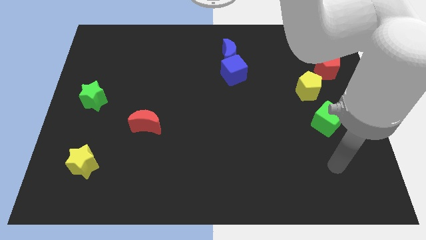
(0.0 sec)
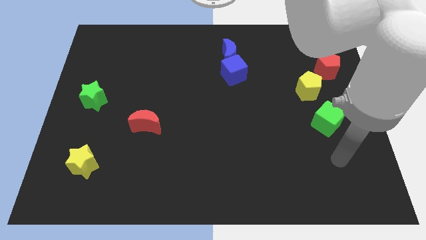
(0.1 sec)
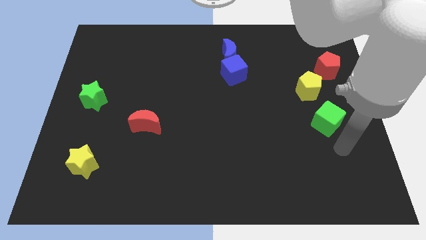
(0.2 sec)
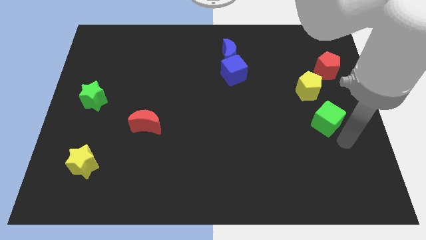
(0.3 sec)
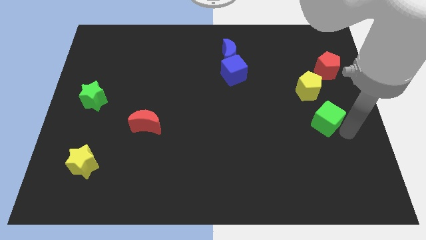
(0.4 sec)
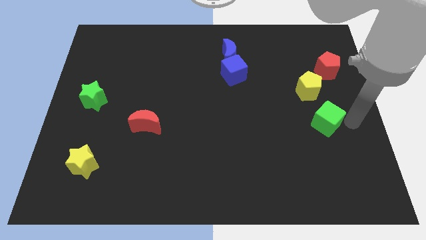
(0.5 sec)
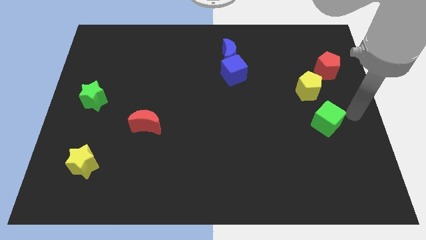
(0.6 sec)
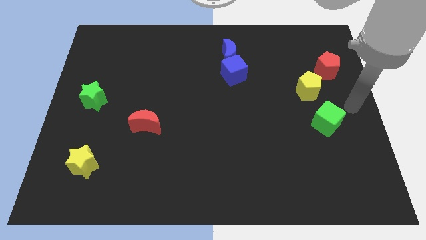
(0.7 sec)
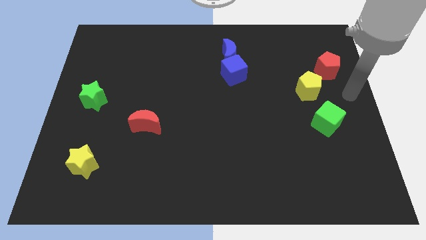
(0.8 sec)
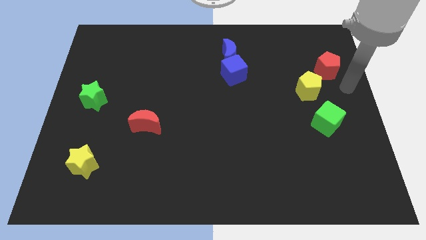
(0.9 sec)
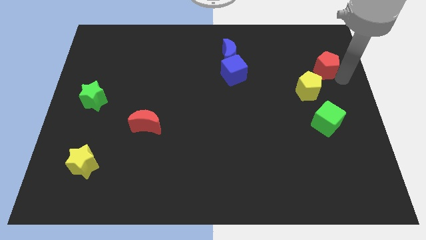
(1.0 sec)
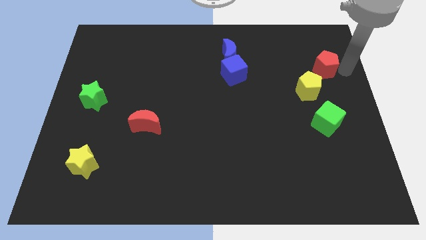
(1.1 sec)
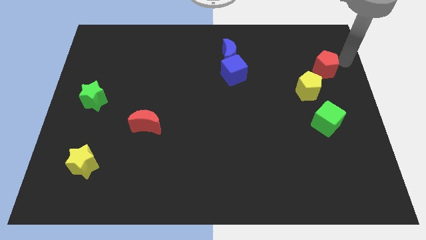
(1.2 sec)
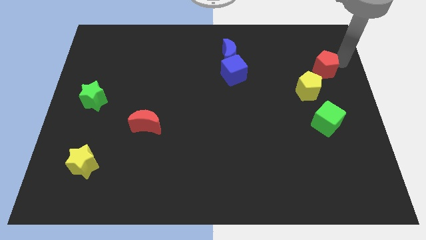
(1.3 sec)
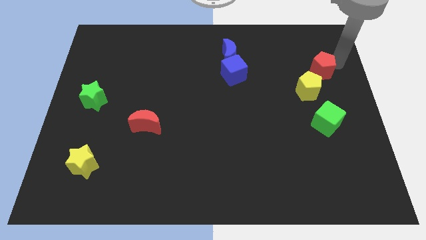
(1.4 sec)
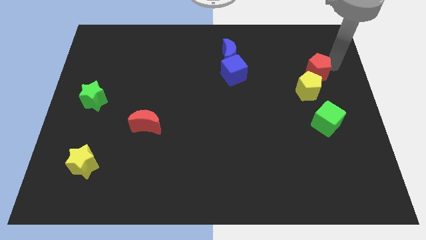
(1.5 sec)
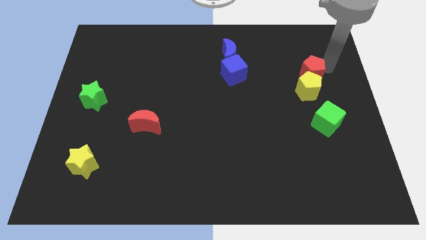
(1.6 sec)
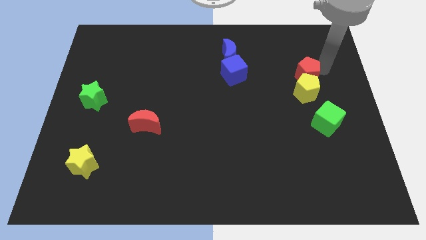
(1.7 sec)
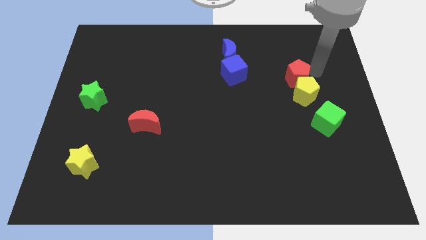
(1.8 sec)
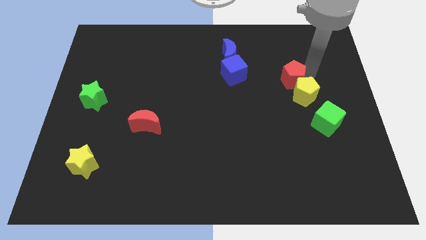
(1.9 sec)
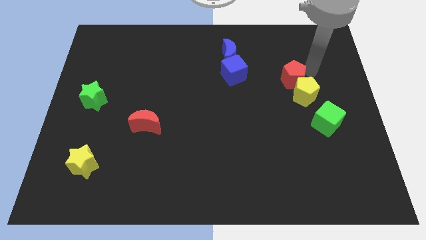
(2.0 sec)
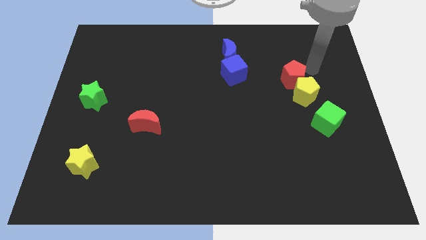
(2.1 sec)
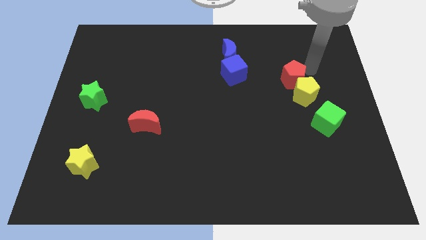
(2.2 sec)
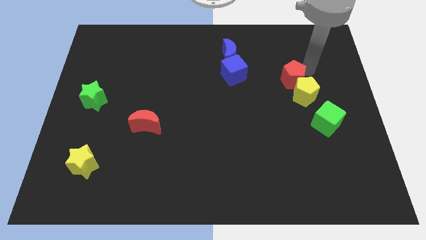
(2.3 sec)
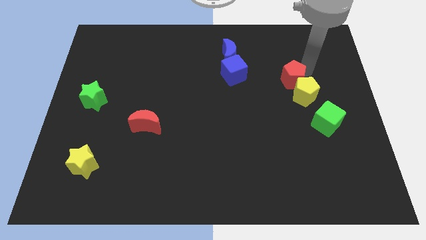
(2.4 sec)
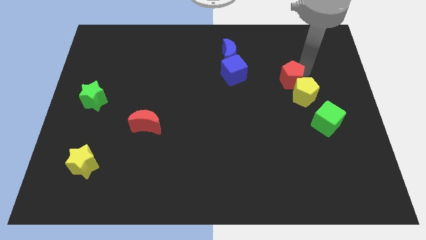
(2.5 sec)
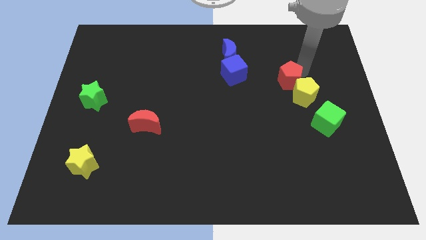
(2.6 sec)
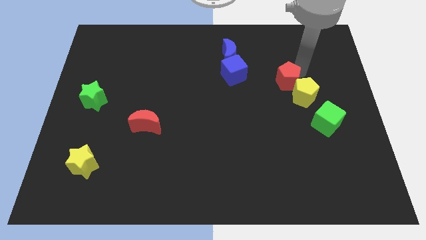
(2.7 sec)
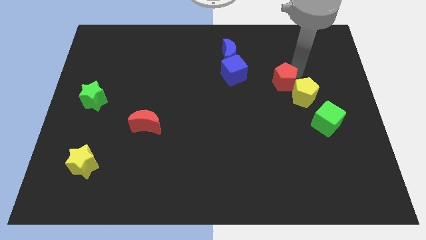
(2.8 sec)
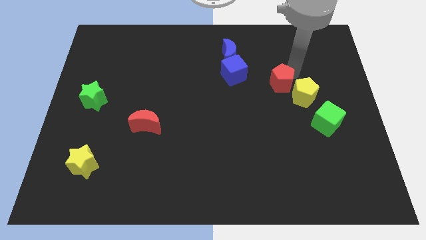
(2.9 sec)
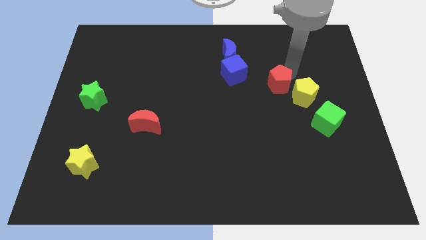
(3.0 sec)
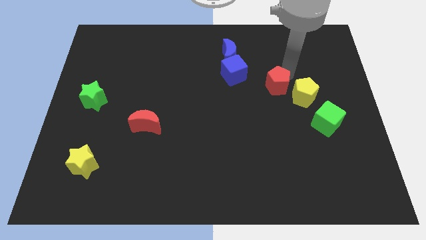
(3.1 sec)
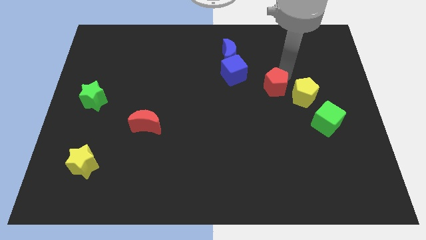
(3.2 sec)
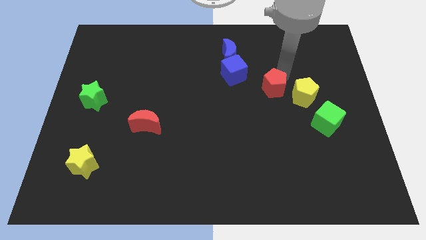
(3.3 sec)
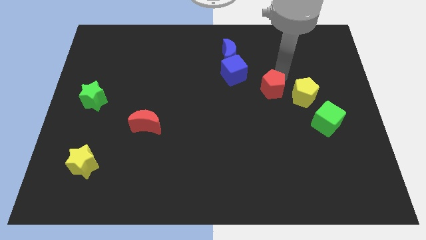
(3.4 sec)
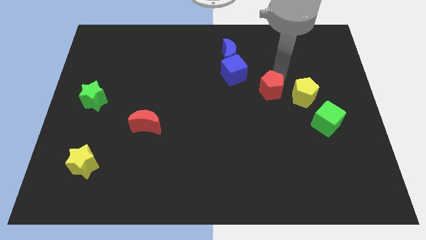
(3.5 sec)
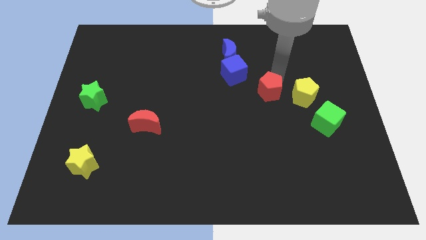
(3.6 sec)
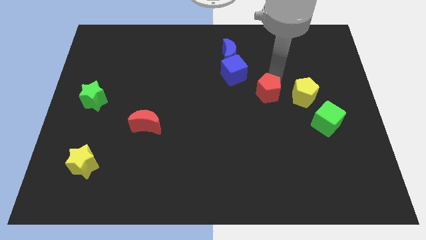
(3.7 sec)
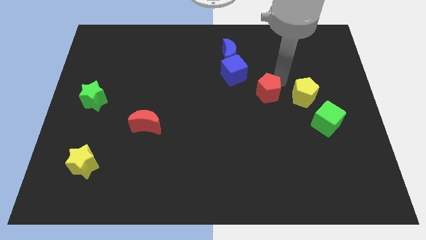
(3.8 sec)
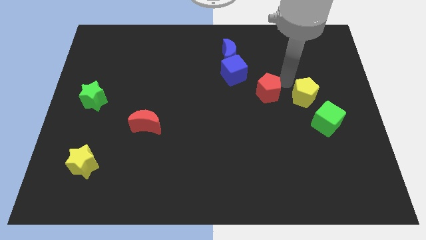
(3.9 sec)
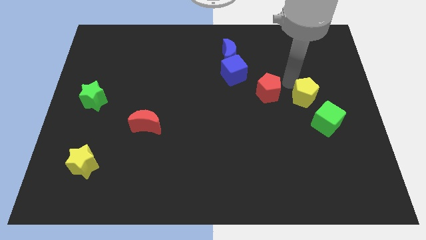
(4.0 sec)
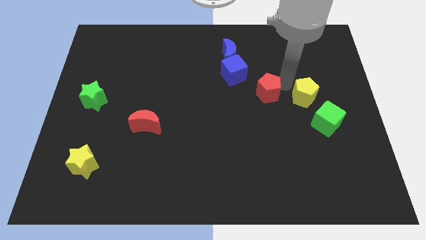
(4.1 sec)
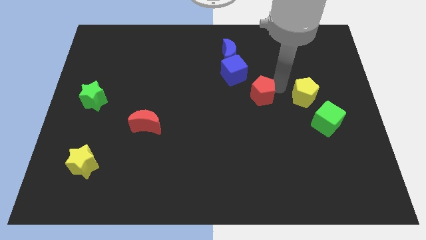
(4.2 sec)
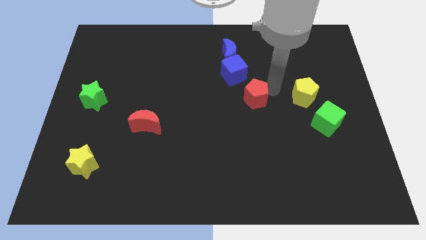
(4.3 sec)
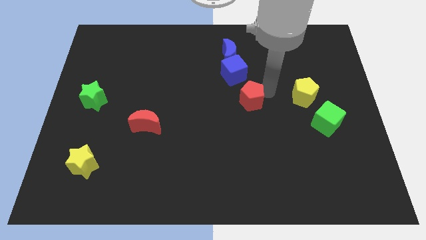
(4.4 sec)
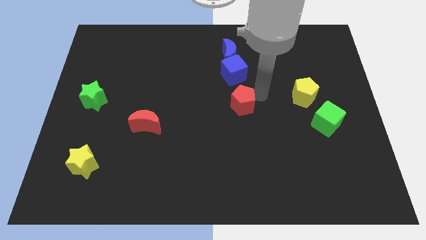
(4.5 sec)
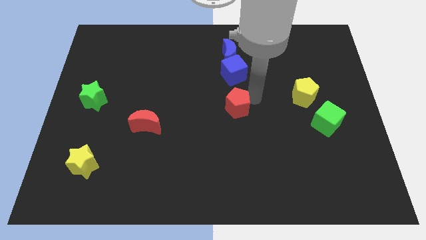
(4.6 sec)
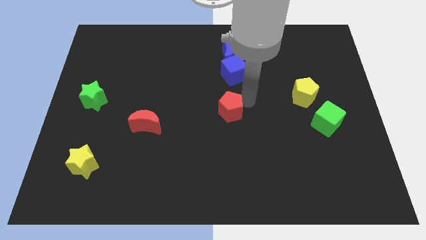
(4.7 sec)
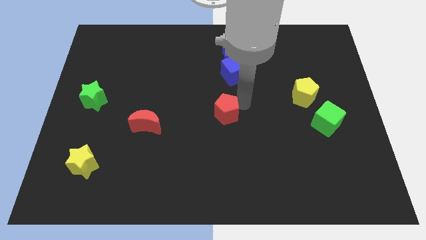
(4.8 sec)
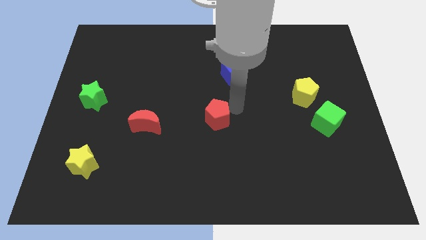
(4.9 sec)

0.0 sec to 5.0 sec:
move the red pentagon just right of the red moon

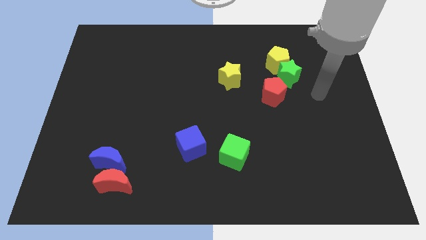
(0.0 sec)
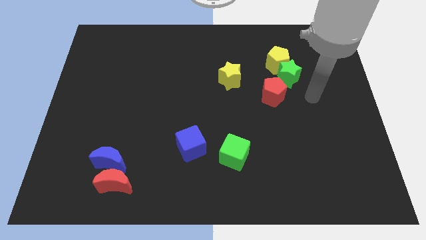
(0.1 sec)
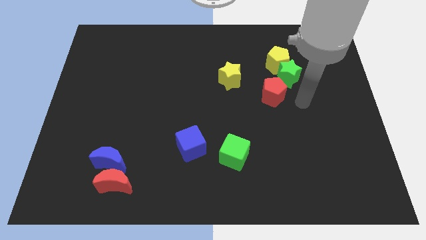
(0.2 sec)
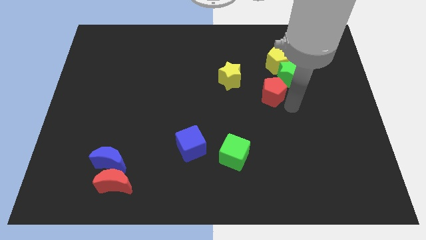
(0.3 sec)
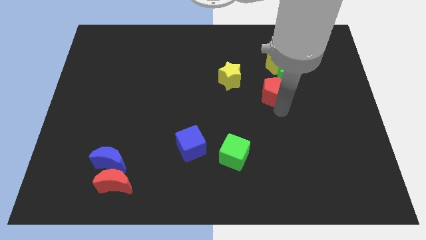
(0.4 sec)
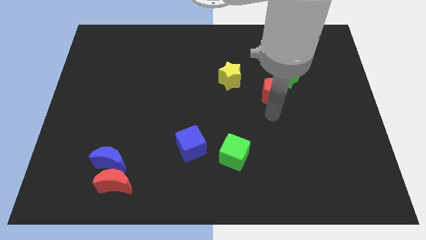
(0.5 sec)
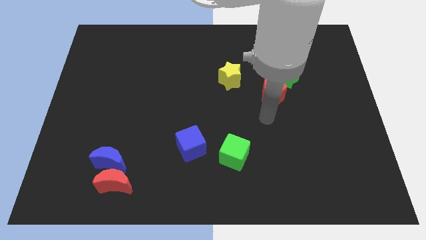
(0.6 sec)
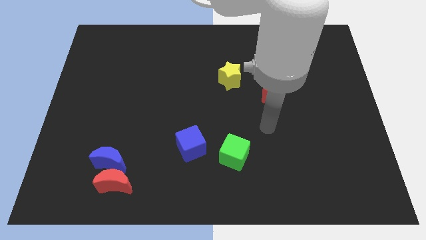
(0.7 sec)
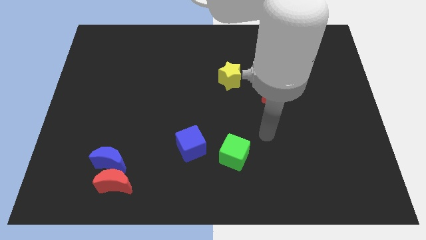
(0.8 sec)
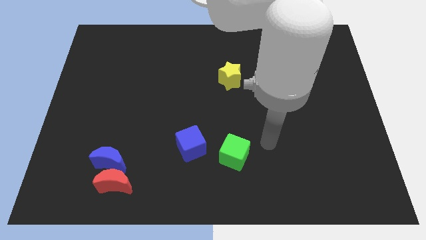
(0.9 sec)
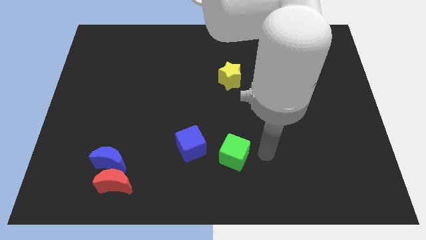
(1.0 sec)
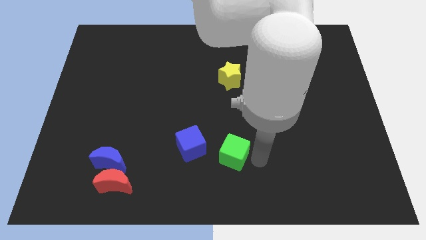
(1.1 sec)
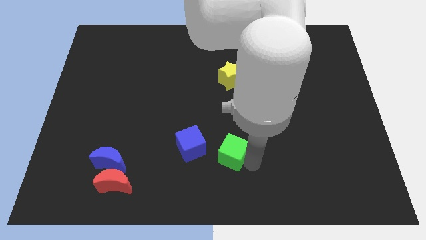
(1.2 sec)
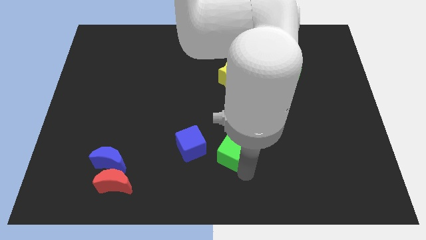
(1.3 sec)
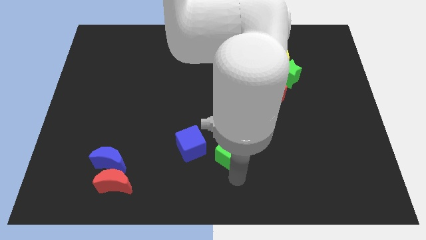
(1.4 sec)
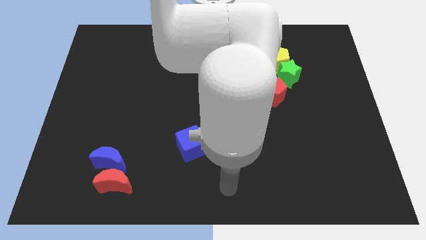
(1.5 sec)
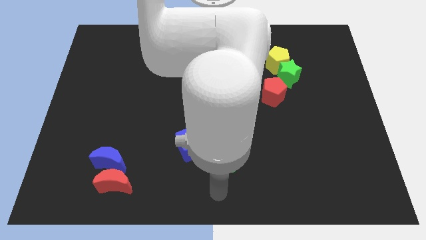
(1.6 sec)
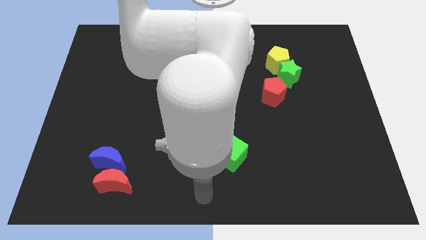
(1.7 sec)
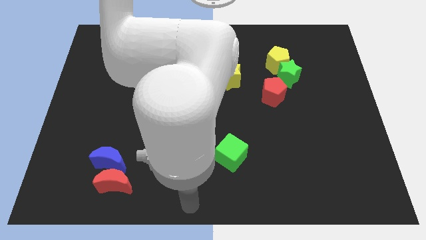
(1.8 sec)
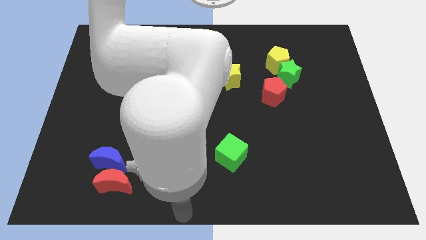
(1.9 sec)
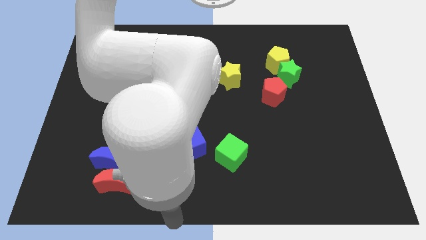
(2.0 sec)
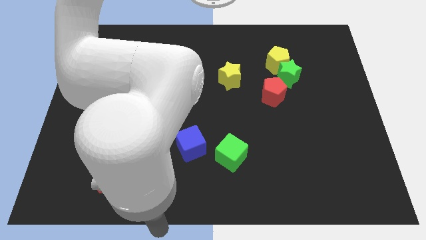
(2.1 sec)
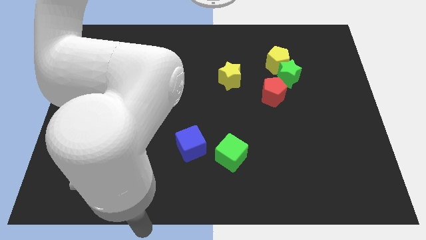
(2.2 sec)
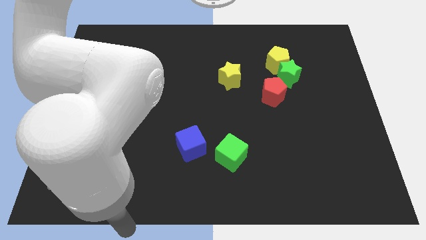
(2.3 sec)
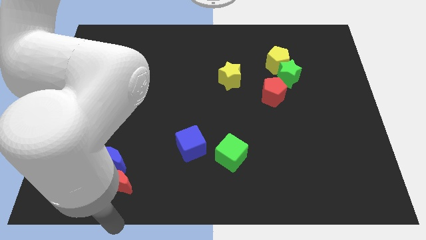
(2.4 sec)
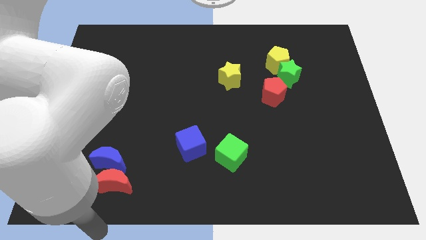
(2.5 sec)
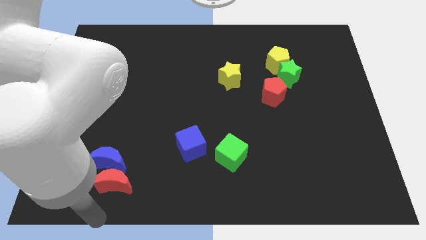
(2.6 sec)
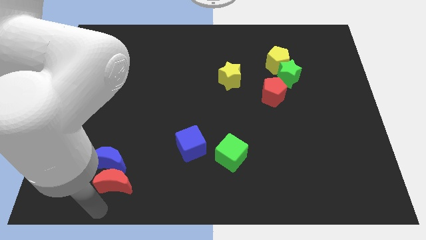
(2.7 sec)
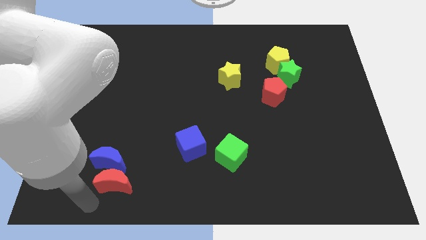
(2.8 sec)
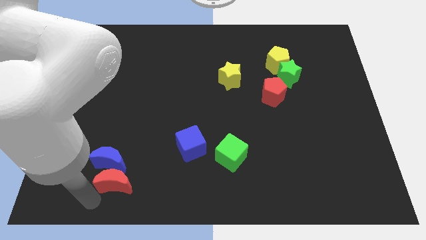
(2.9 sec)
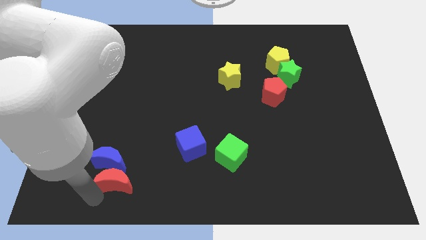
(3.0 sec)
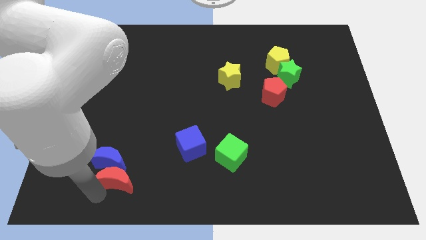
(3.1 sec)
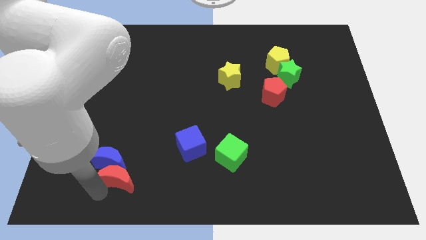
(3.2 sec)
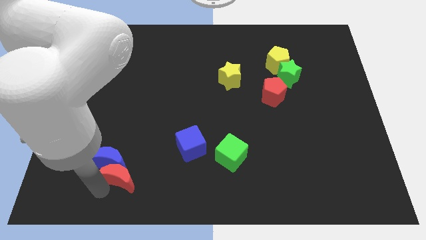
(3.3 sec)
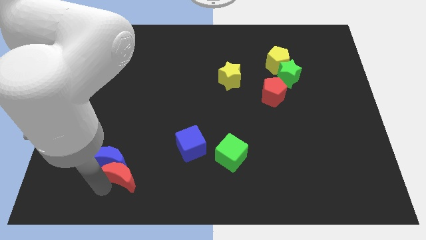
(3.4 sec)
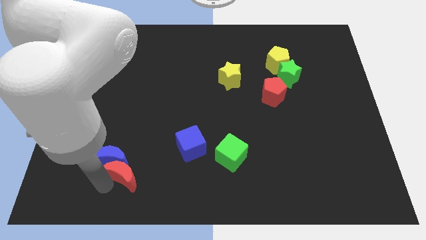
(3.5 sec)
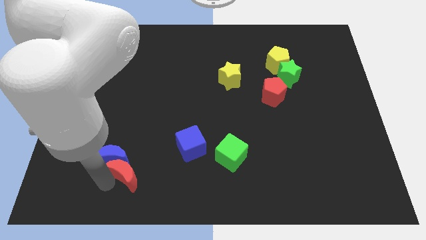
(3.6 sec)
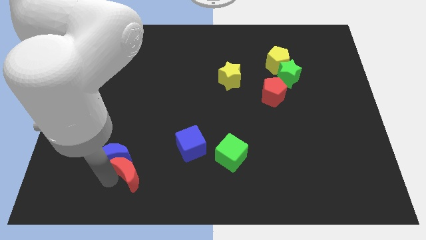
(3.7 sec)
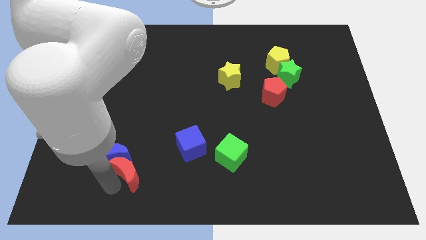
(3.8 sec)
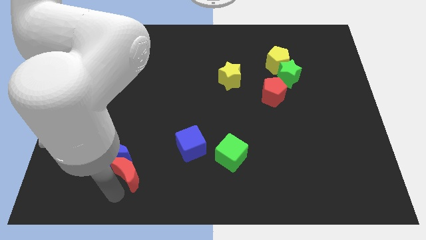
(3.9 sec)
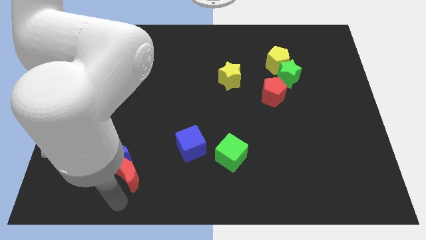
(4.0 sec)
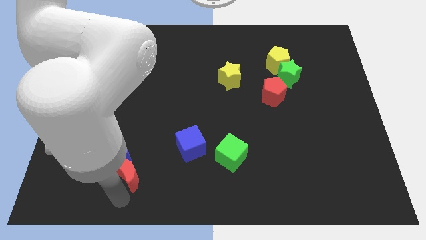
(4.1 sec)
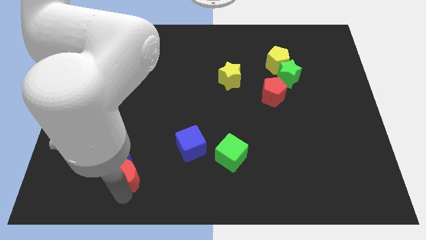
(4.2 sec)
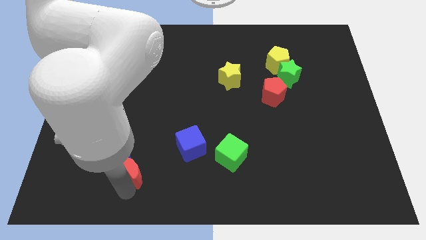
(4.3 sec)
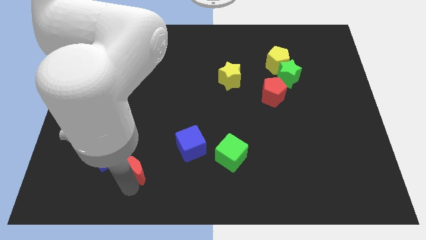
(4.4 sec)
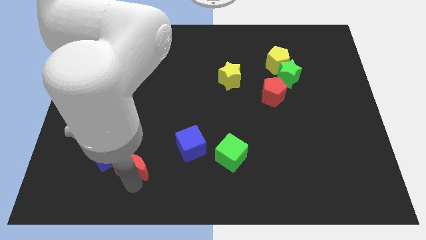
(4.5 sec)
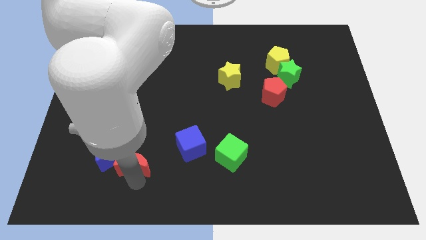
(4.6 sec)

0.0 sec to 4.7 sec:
move the red moon to the top right of the blue moon
